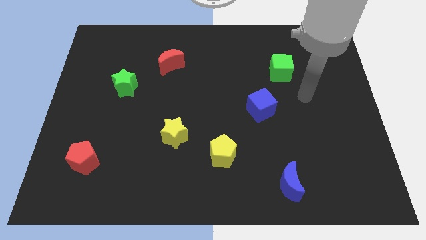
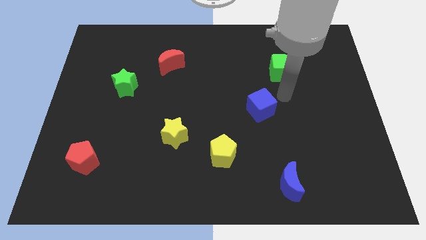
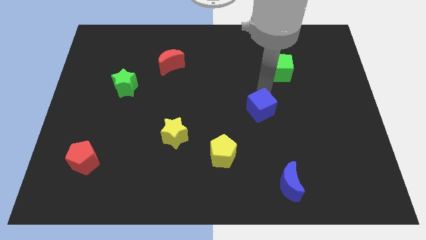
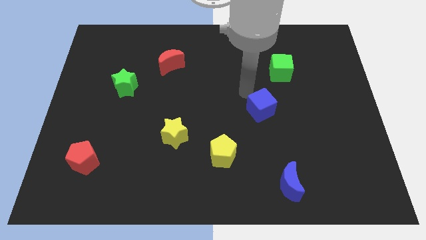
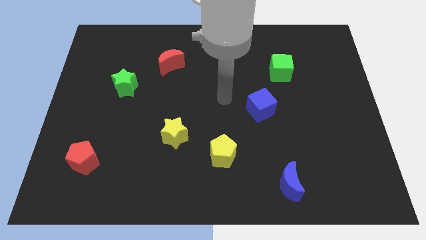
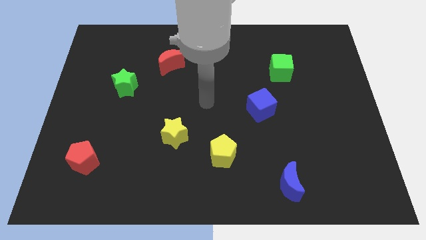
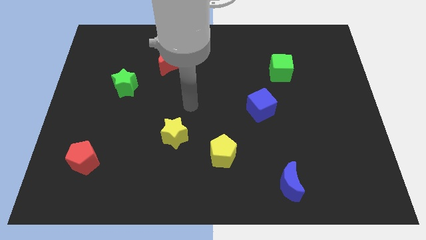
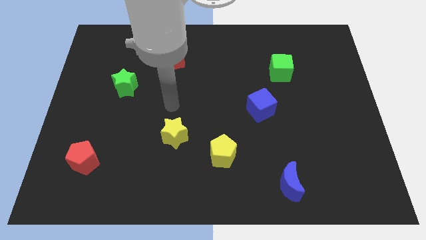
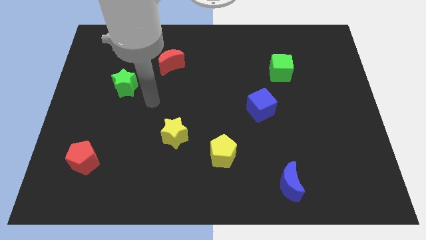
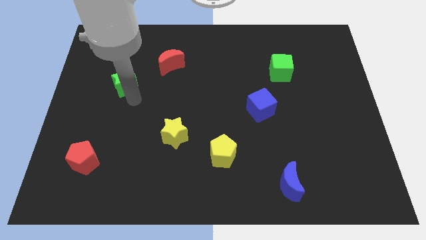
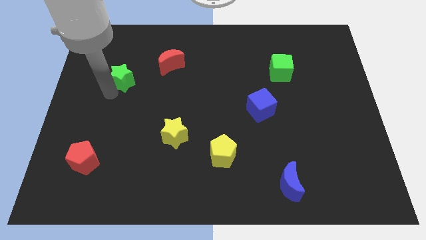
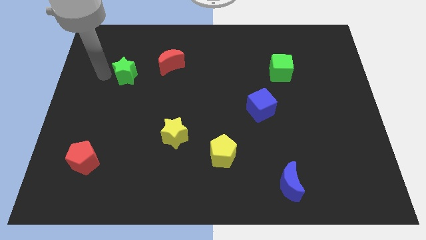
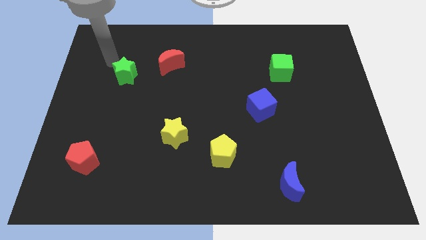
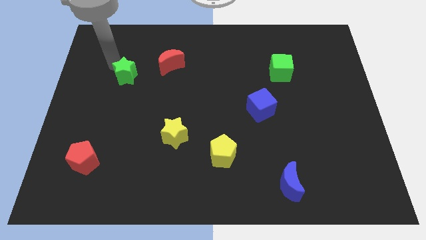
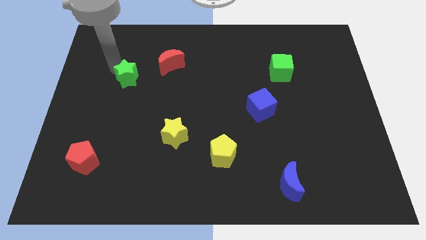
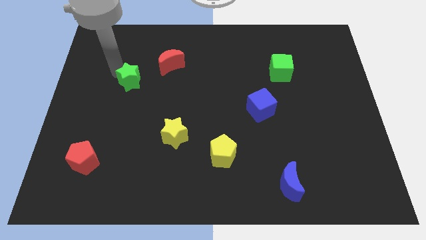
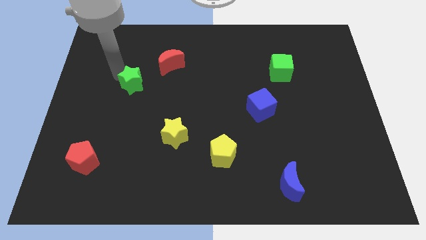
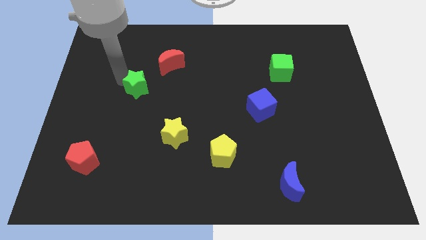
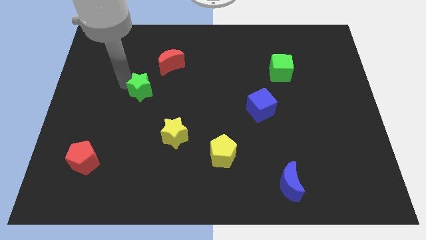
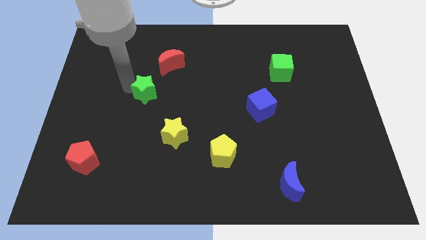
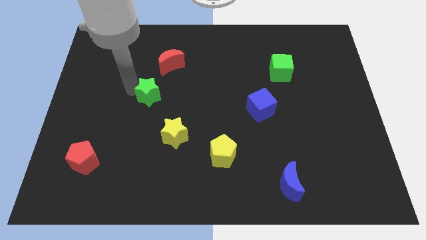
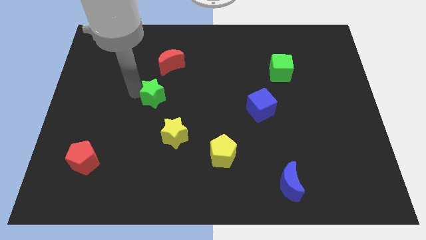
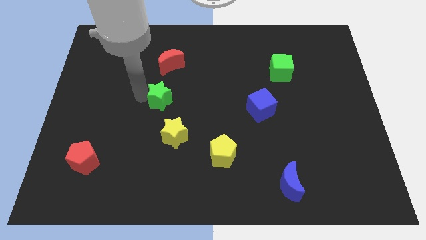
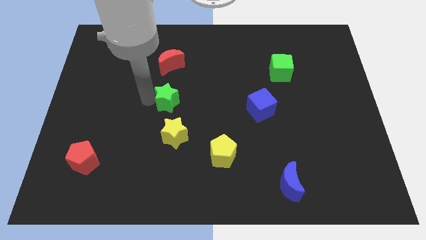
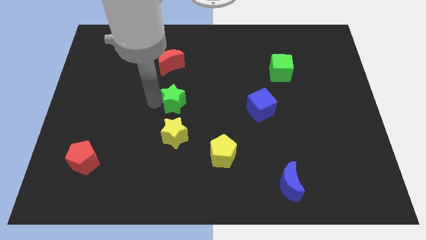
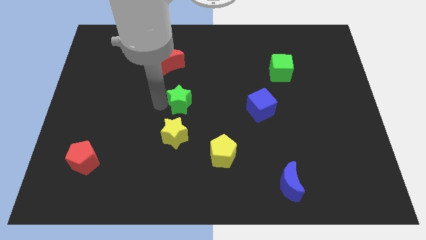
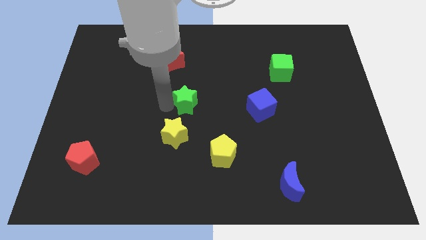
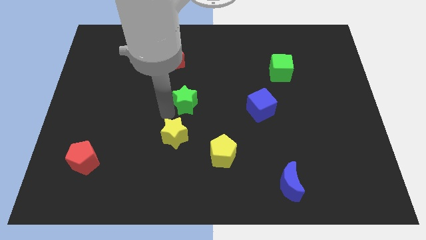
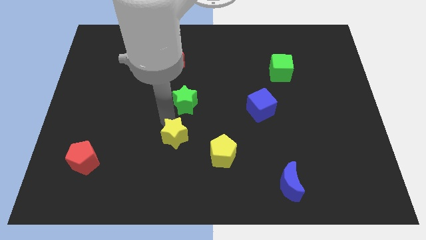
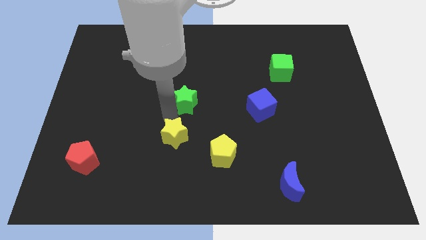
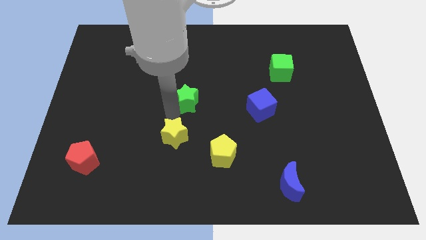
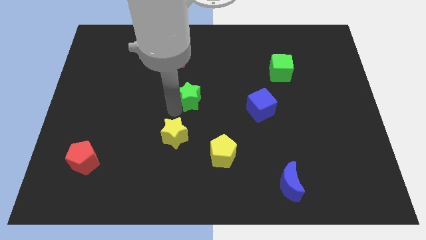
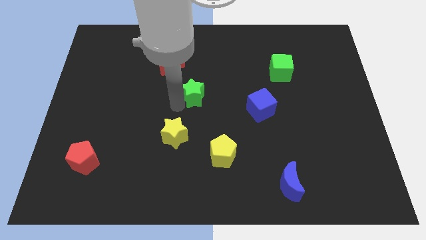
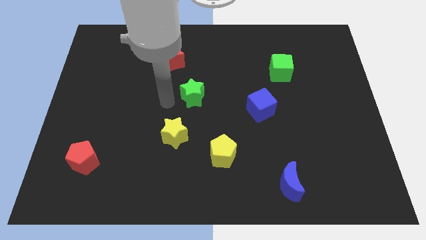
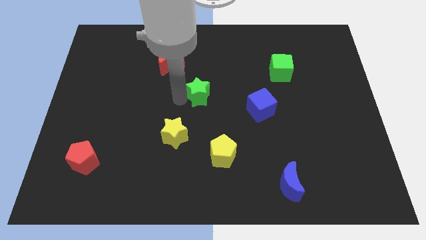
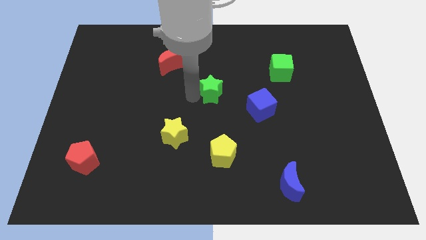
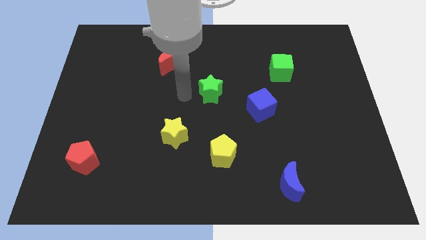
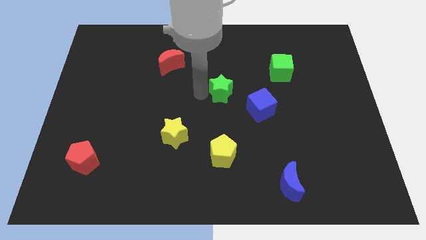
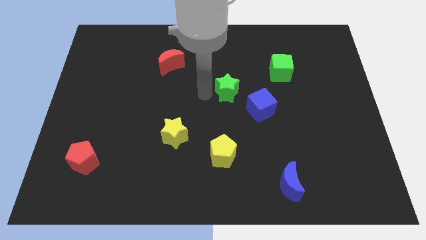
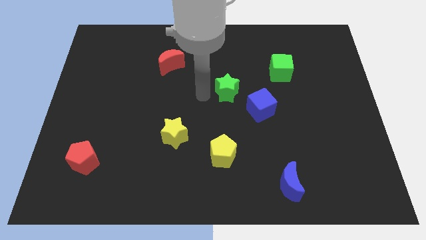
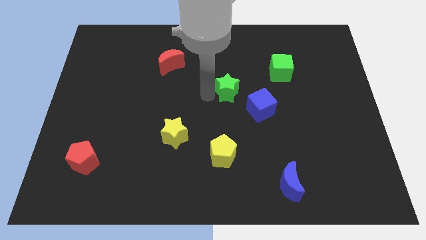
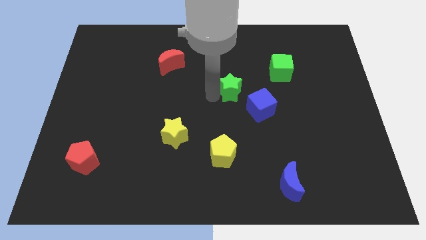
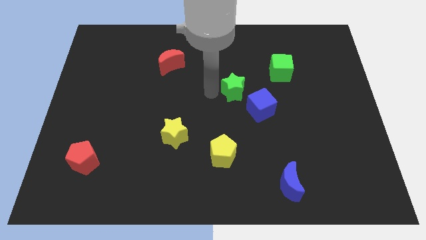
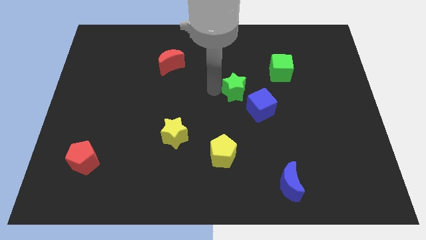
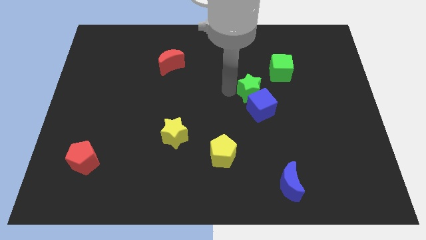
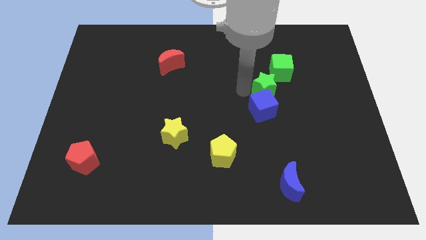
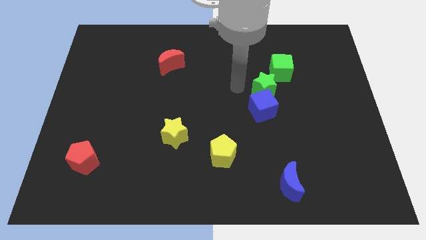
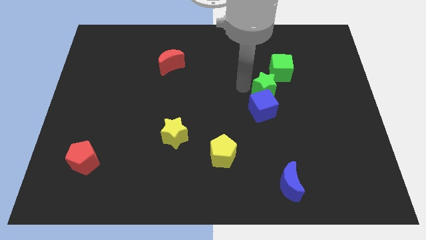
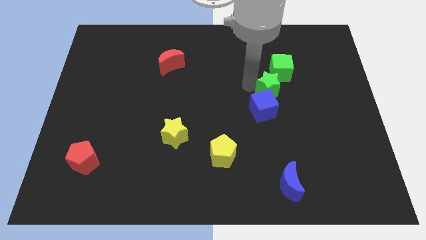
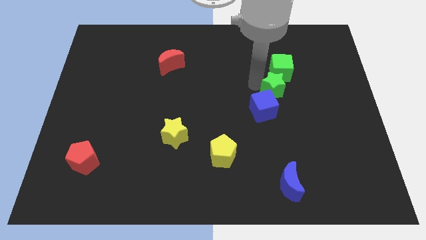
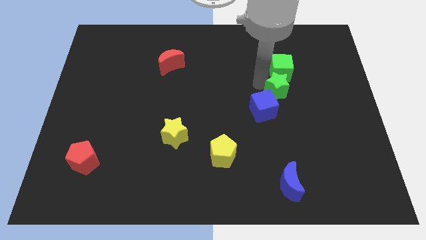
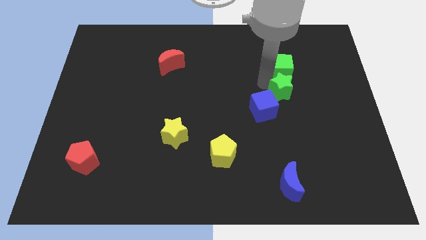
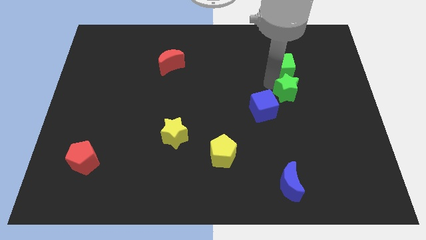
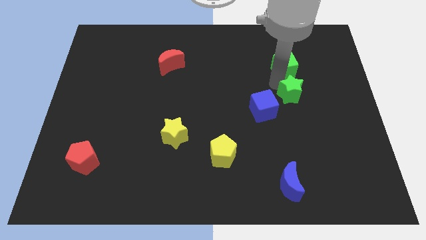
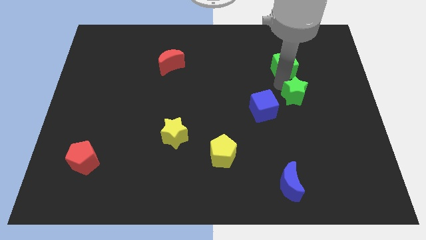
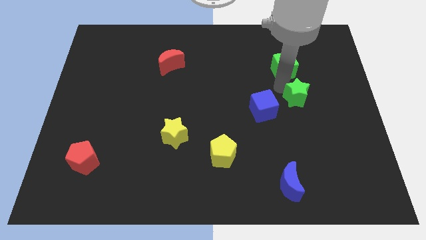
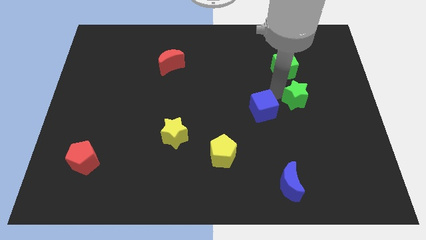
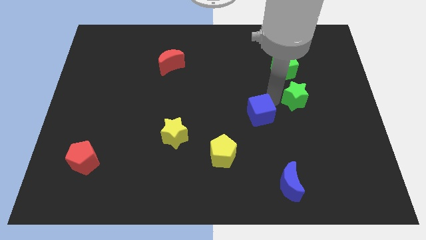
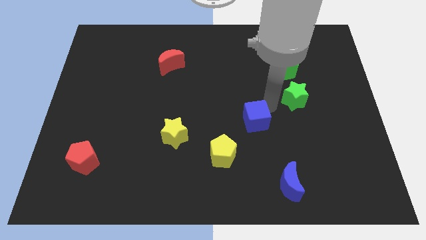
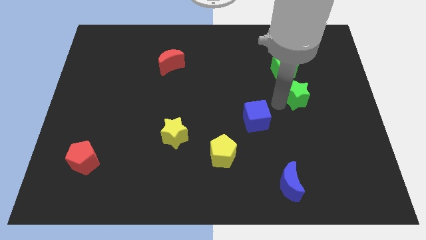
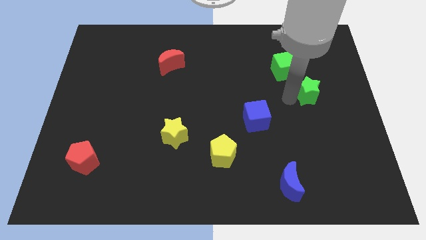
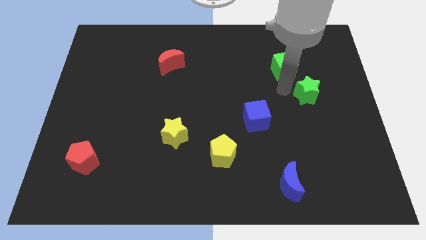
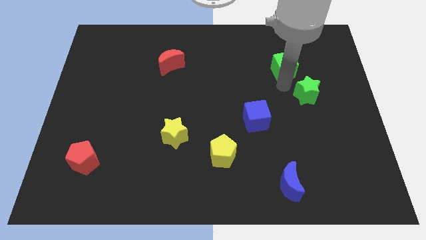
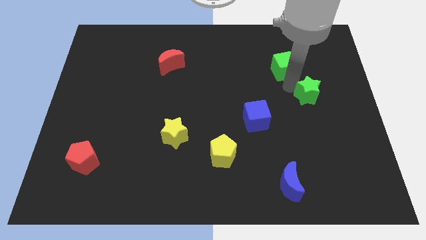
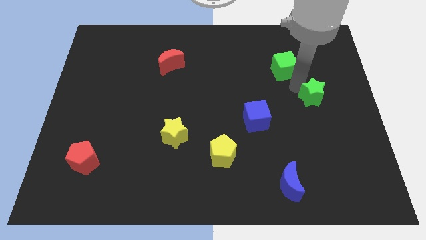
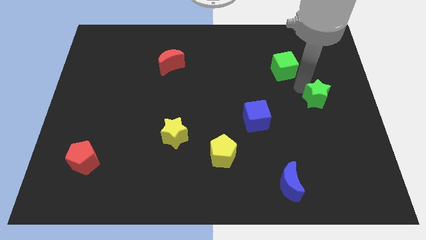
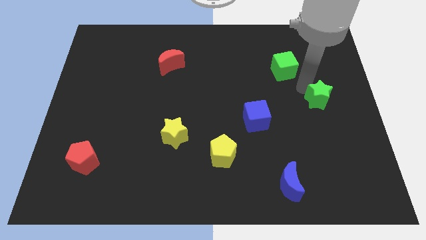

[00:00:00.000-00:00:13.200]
move the green star to the right side
